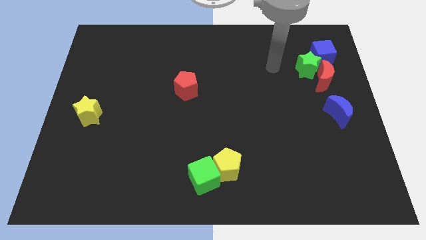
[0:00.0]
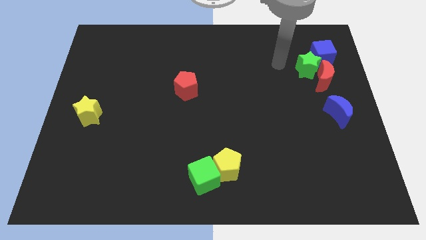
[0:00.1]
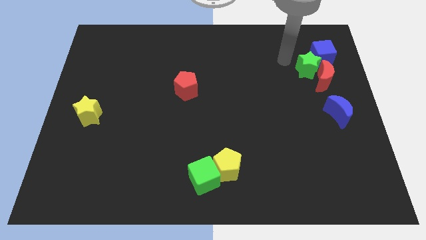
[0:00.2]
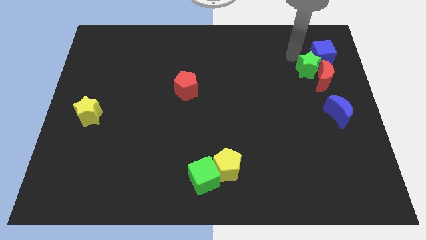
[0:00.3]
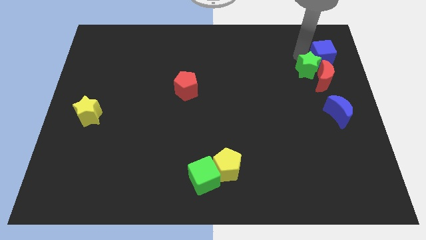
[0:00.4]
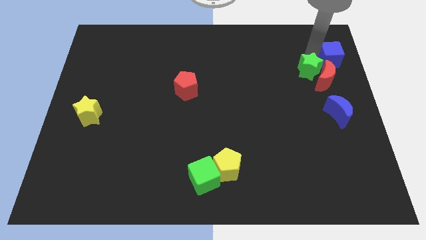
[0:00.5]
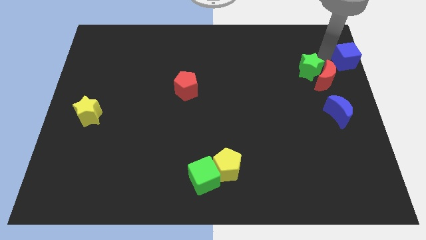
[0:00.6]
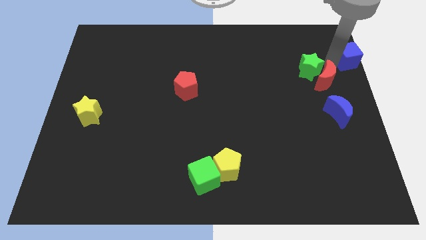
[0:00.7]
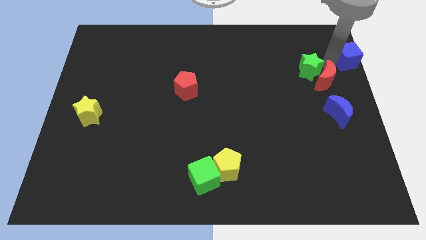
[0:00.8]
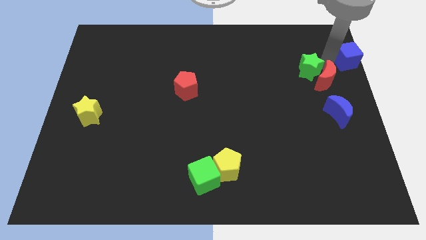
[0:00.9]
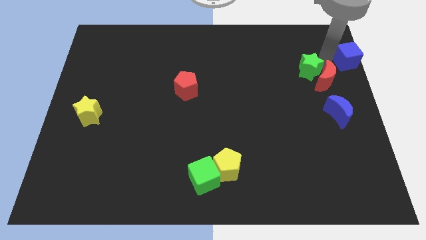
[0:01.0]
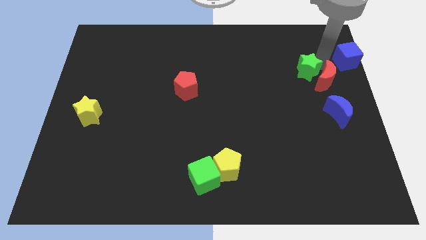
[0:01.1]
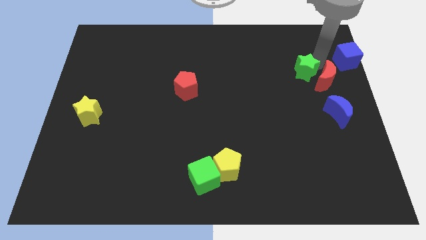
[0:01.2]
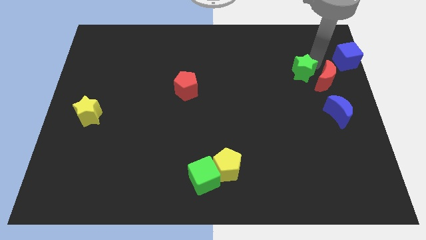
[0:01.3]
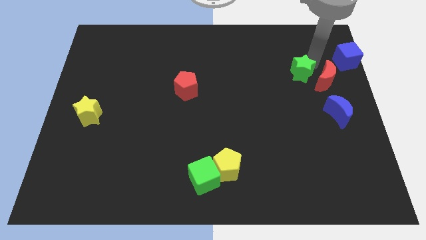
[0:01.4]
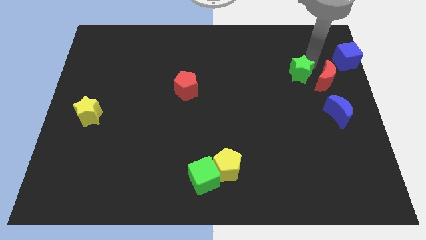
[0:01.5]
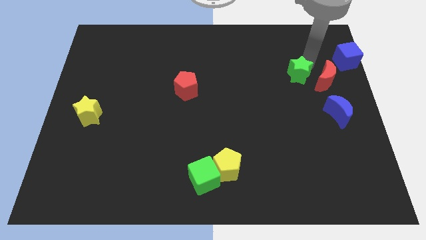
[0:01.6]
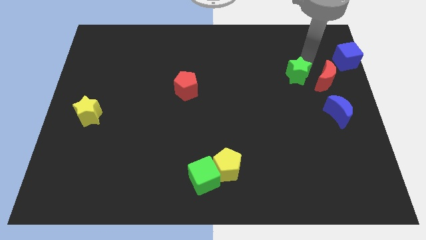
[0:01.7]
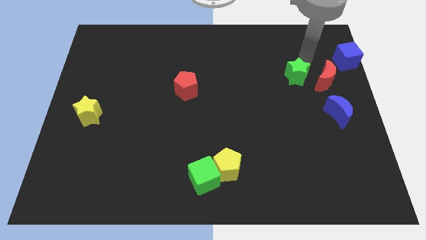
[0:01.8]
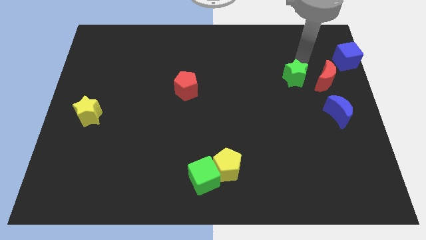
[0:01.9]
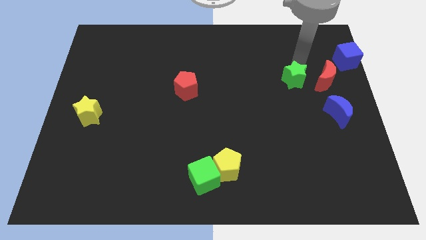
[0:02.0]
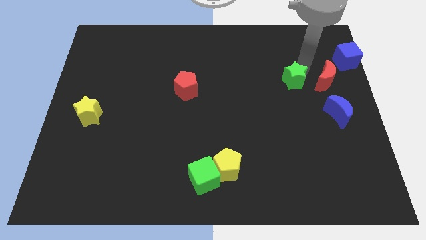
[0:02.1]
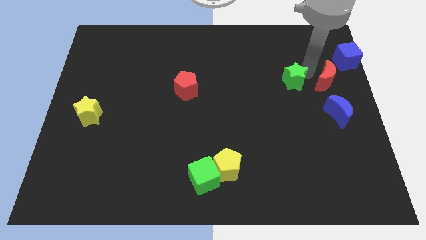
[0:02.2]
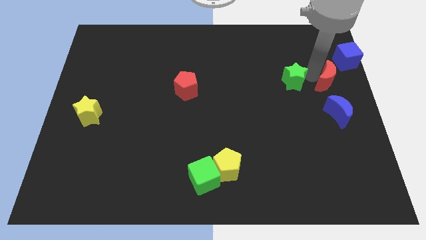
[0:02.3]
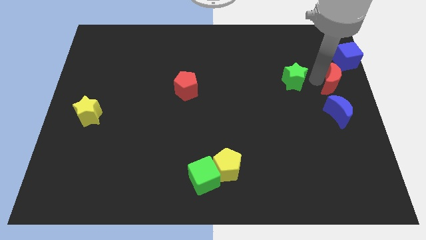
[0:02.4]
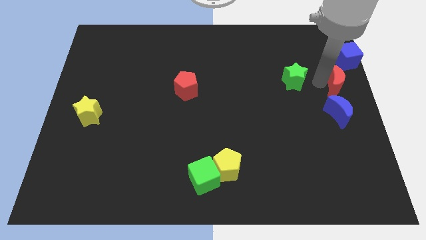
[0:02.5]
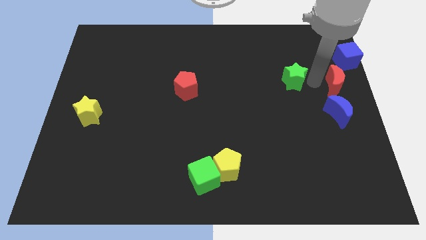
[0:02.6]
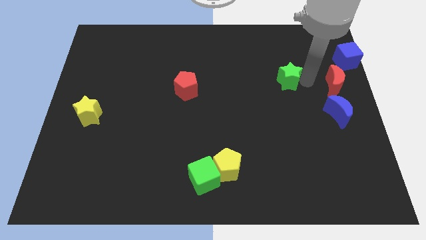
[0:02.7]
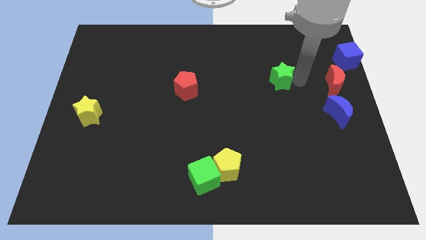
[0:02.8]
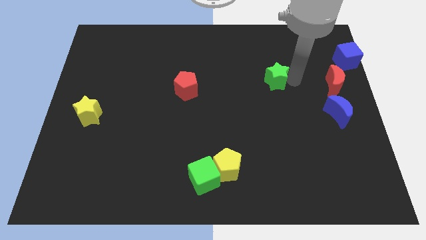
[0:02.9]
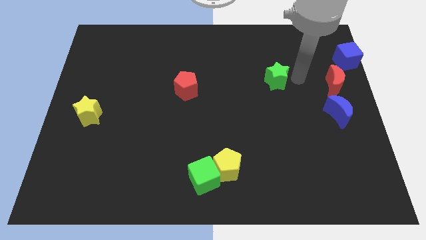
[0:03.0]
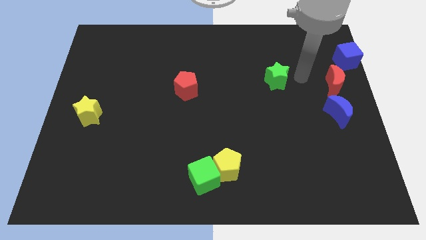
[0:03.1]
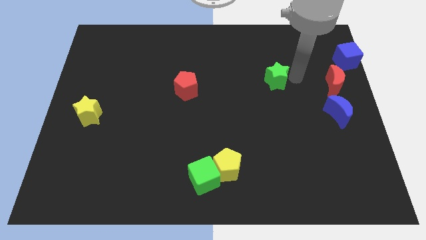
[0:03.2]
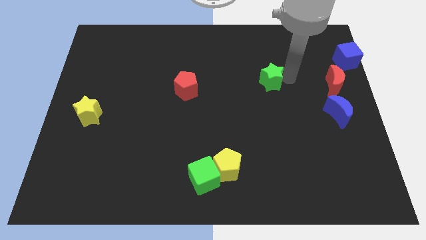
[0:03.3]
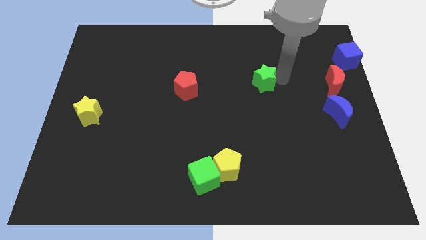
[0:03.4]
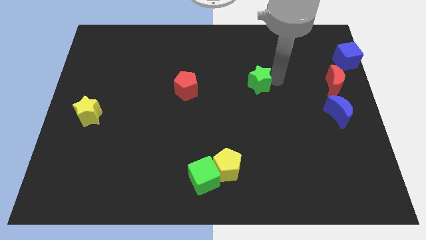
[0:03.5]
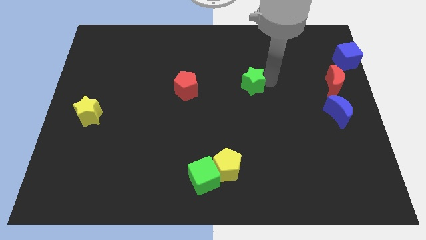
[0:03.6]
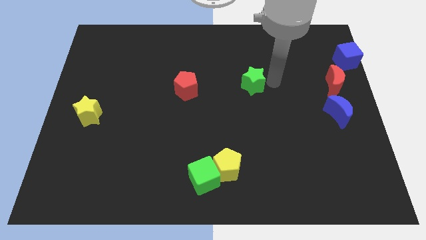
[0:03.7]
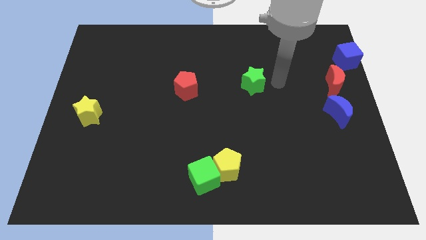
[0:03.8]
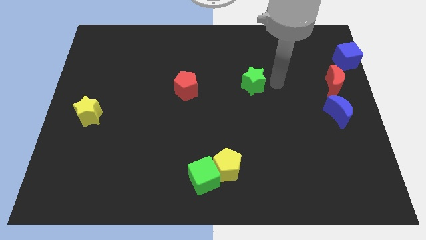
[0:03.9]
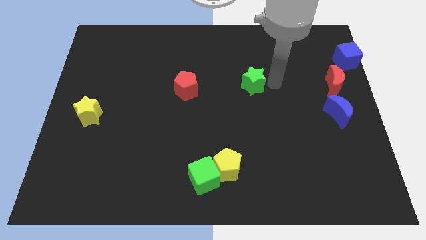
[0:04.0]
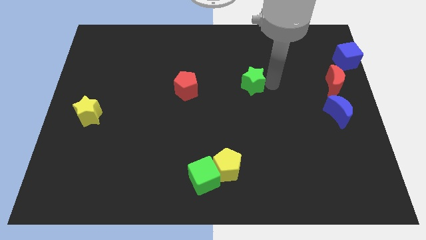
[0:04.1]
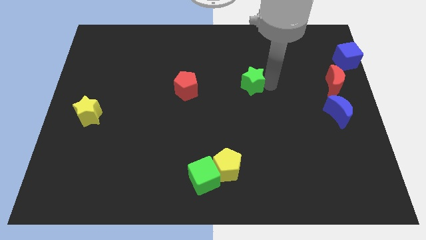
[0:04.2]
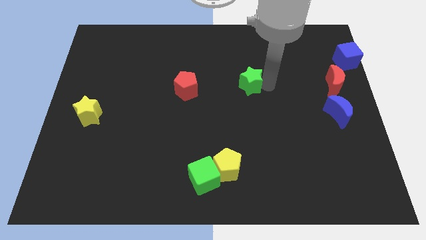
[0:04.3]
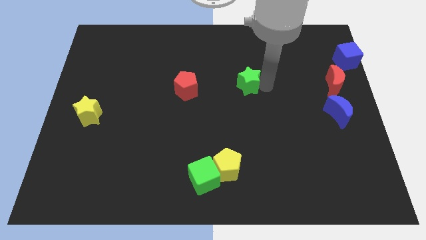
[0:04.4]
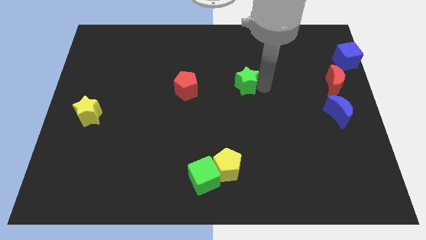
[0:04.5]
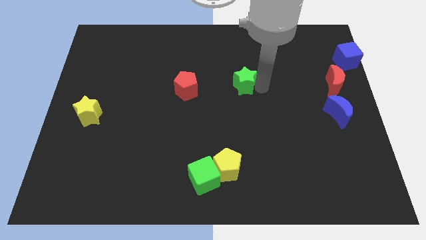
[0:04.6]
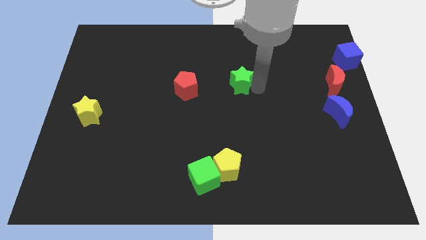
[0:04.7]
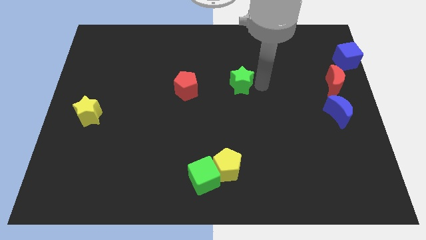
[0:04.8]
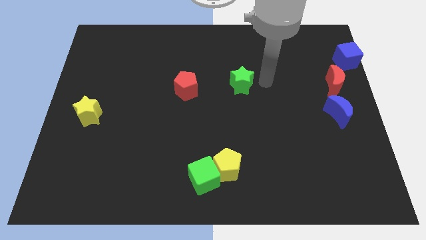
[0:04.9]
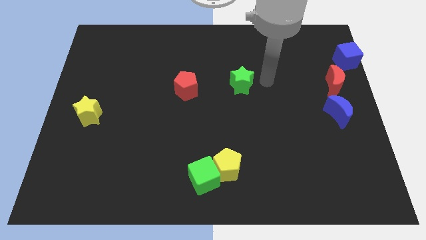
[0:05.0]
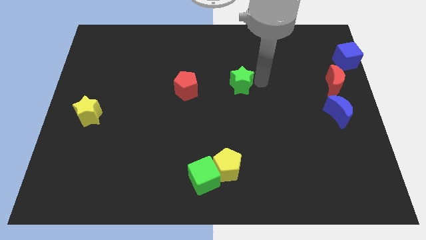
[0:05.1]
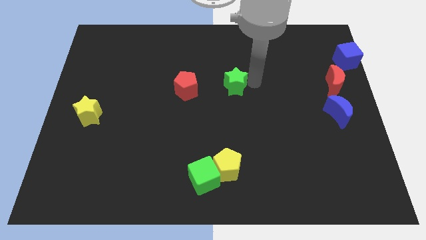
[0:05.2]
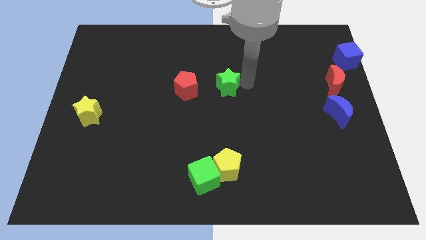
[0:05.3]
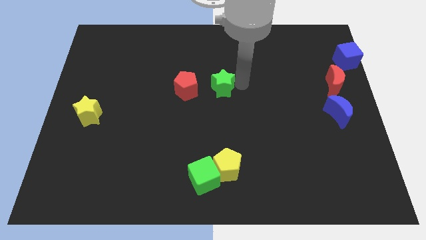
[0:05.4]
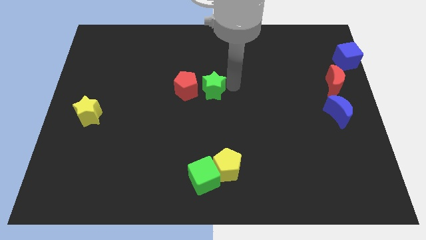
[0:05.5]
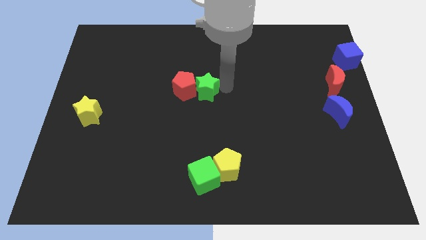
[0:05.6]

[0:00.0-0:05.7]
put the green star next to the red pentagon

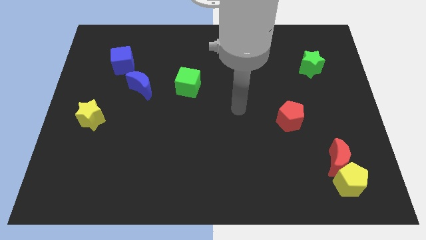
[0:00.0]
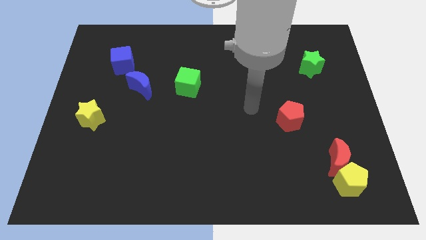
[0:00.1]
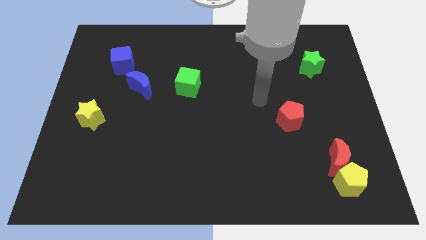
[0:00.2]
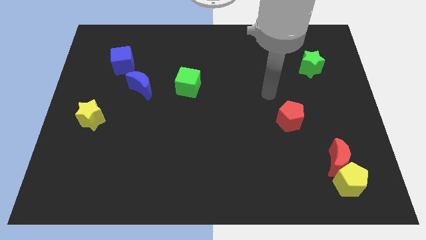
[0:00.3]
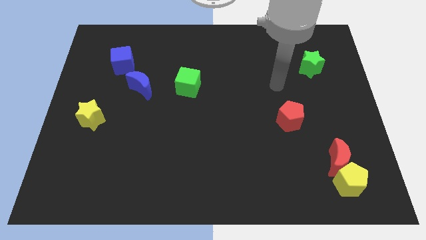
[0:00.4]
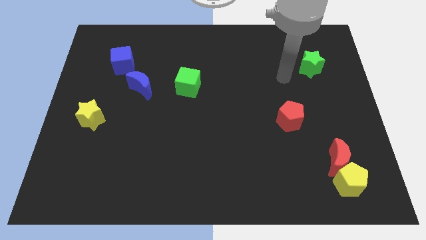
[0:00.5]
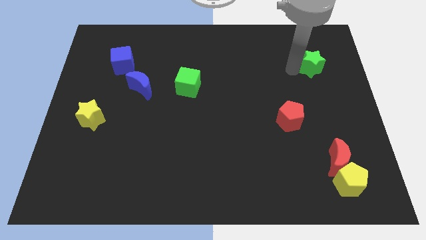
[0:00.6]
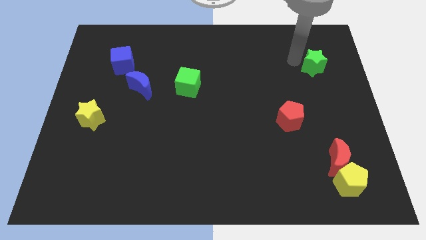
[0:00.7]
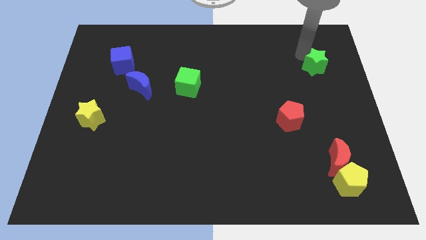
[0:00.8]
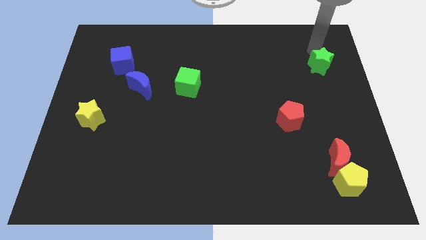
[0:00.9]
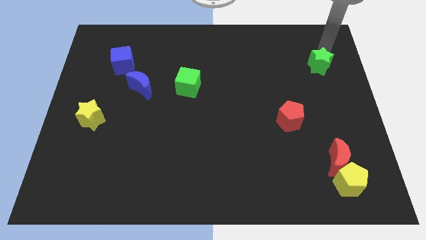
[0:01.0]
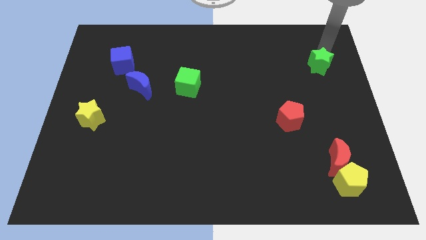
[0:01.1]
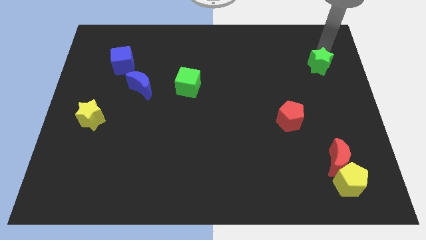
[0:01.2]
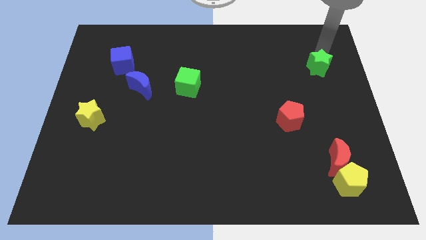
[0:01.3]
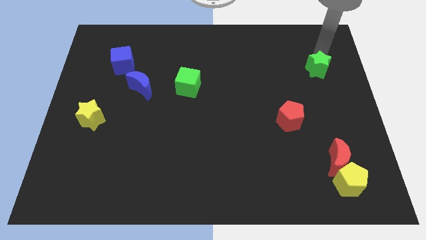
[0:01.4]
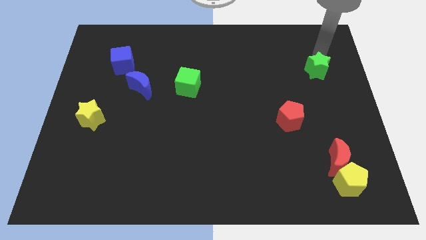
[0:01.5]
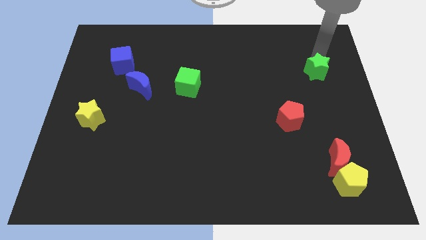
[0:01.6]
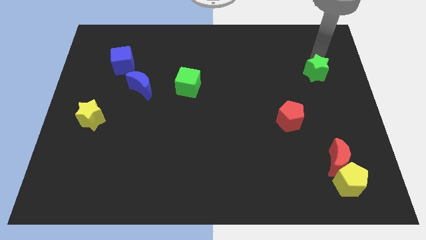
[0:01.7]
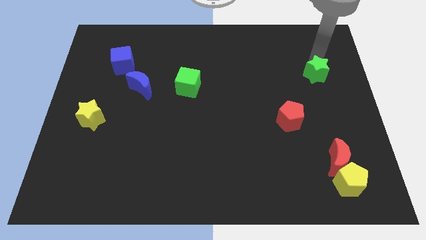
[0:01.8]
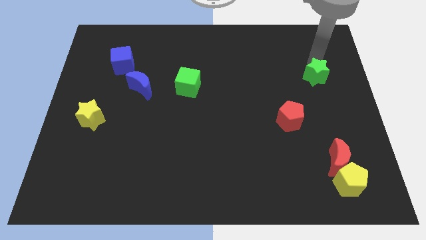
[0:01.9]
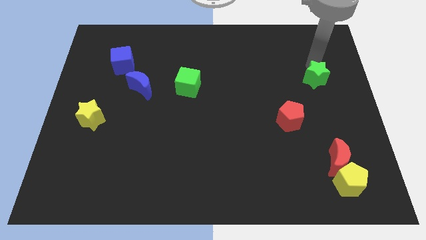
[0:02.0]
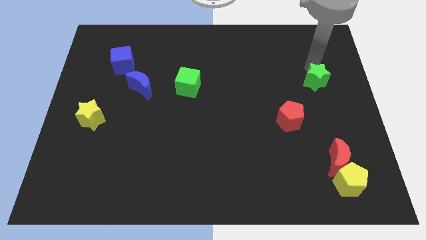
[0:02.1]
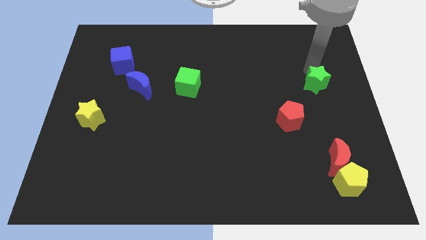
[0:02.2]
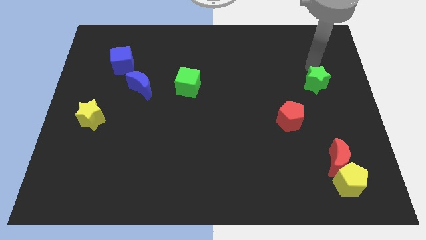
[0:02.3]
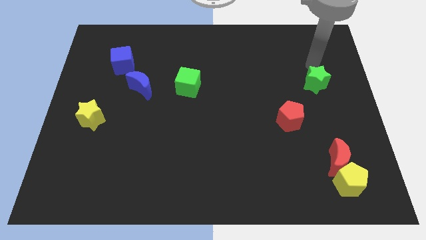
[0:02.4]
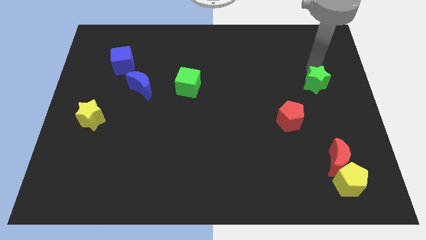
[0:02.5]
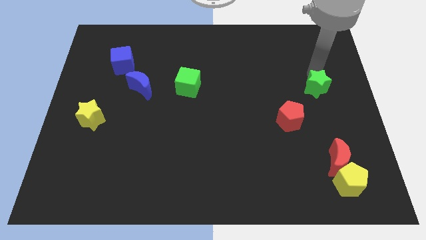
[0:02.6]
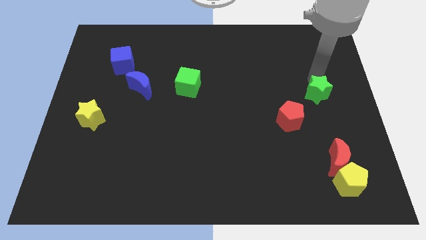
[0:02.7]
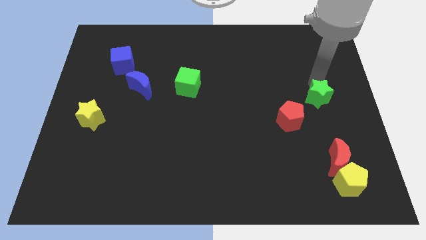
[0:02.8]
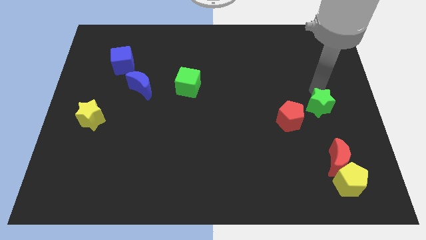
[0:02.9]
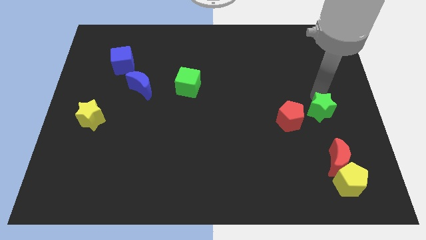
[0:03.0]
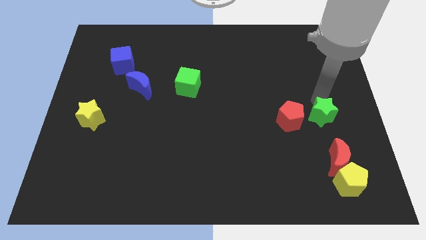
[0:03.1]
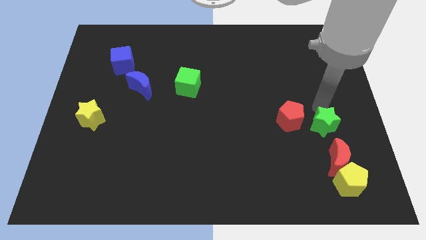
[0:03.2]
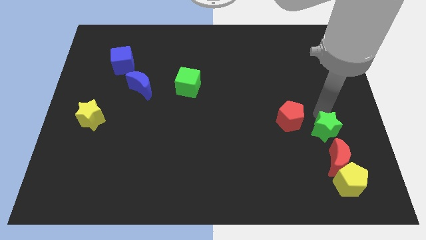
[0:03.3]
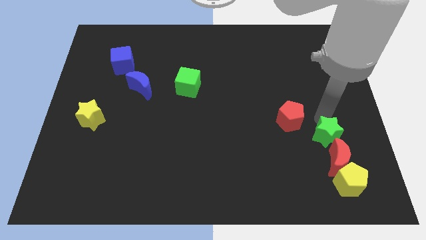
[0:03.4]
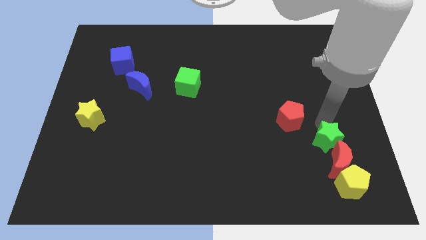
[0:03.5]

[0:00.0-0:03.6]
put the green star next to the red moon
